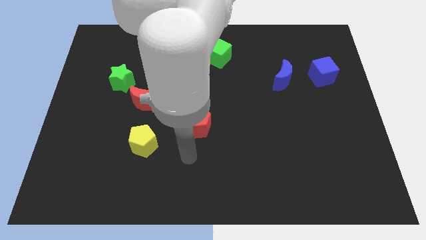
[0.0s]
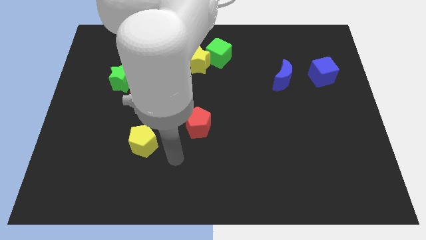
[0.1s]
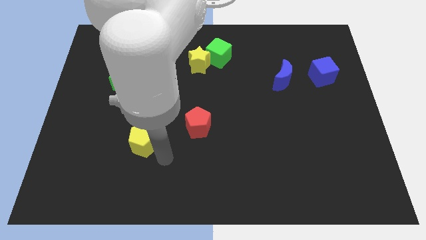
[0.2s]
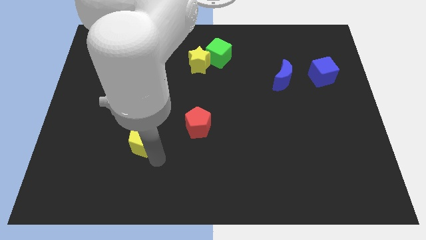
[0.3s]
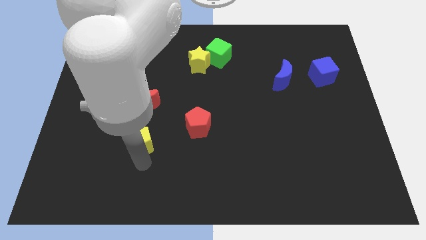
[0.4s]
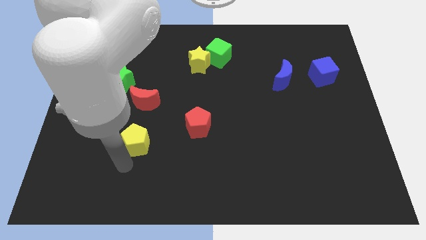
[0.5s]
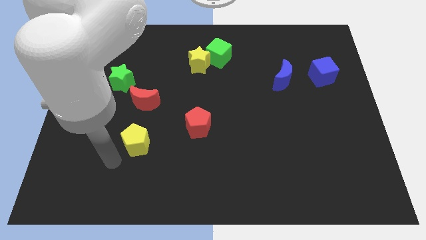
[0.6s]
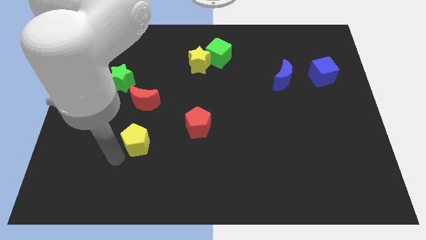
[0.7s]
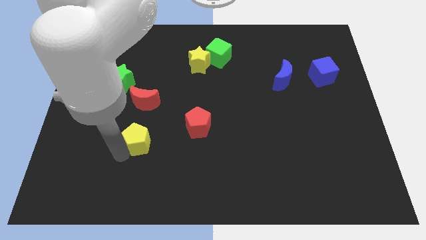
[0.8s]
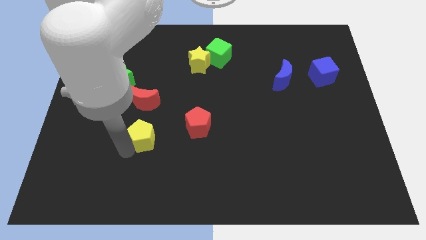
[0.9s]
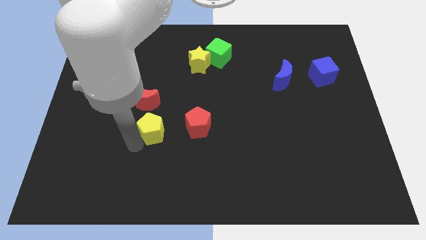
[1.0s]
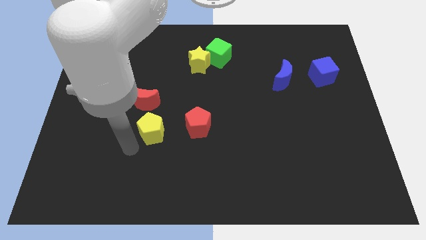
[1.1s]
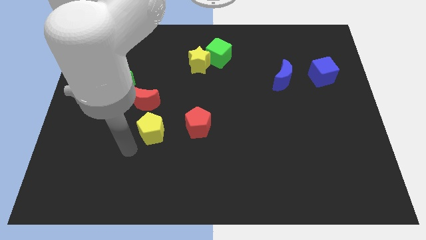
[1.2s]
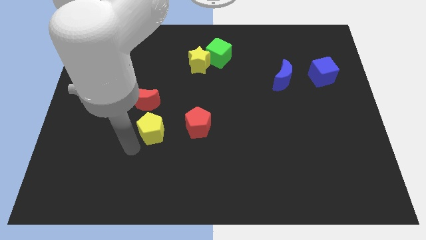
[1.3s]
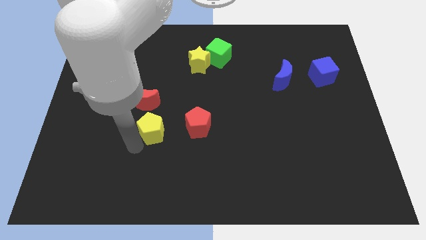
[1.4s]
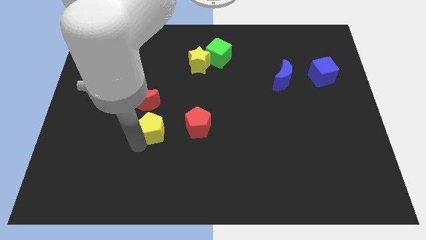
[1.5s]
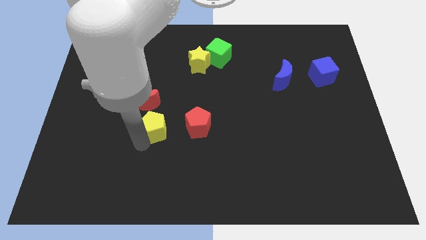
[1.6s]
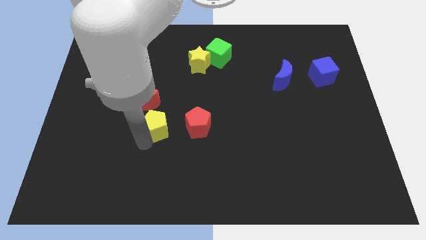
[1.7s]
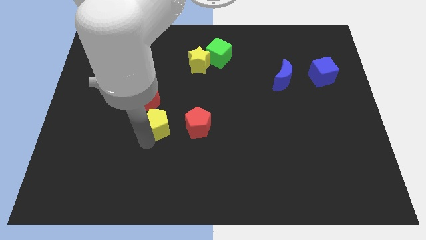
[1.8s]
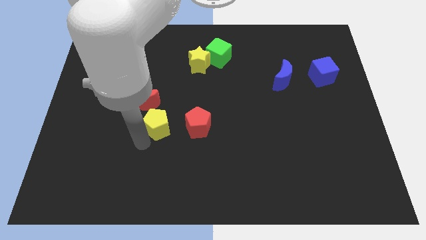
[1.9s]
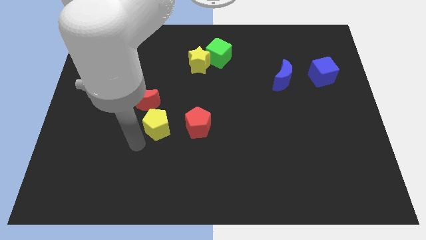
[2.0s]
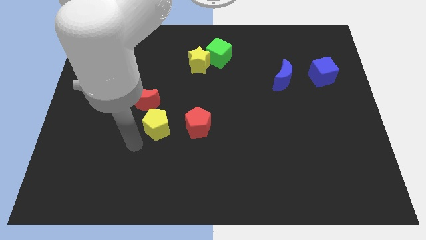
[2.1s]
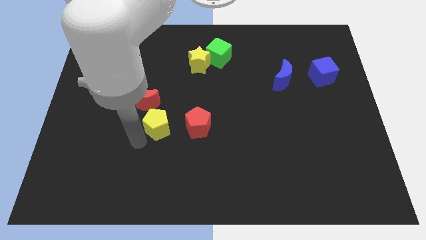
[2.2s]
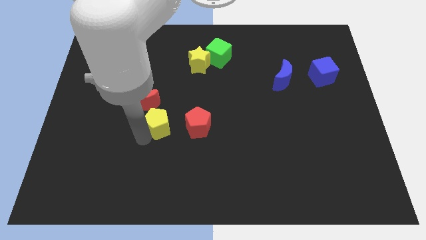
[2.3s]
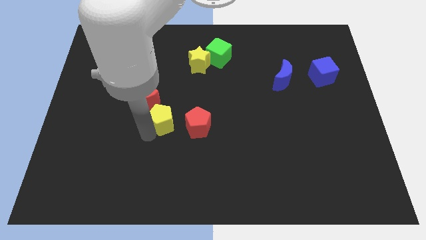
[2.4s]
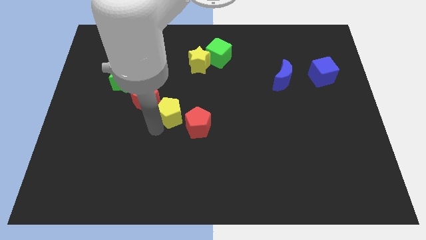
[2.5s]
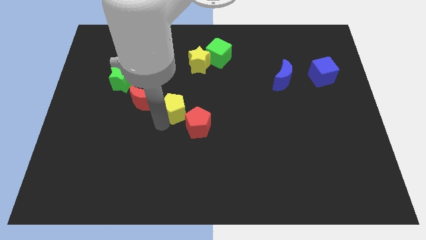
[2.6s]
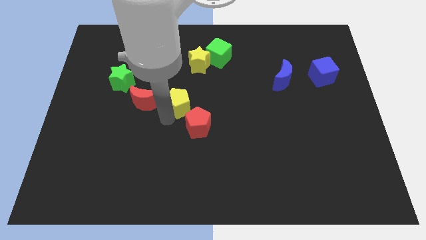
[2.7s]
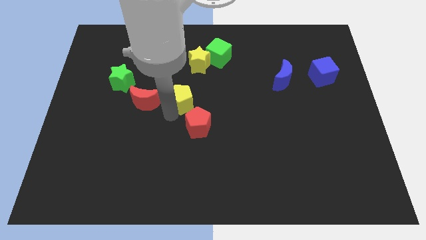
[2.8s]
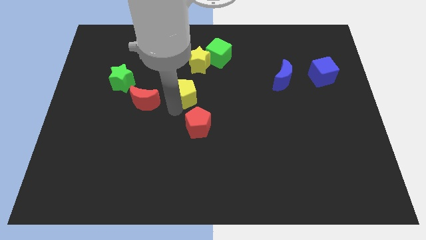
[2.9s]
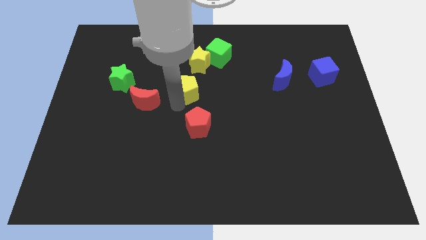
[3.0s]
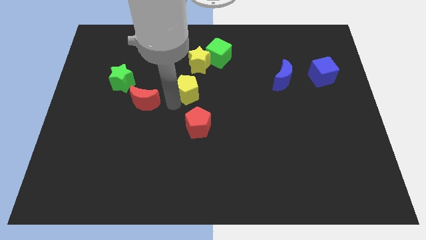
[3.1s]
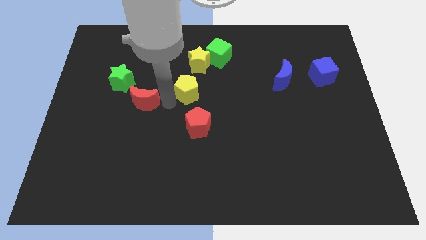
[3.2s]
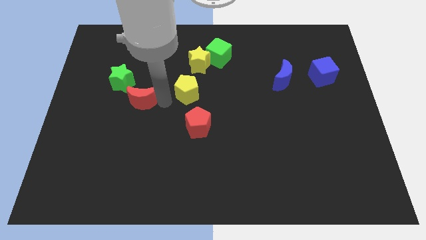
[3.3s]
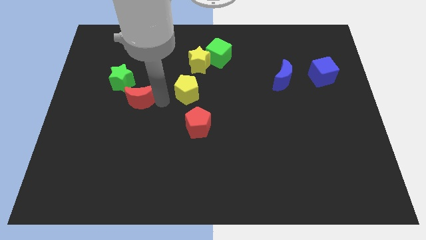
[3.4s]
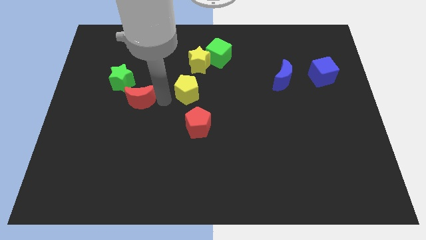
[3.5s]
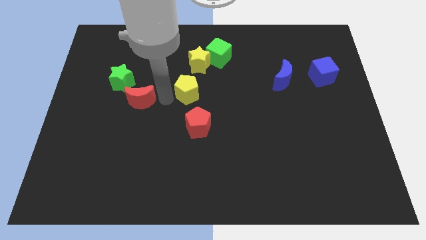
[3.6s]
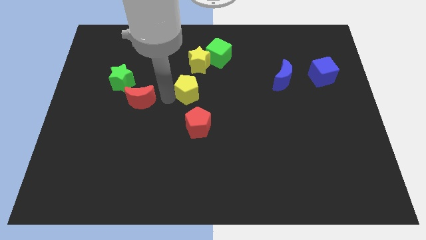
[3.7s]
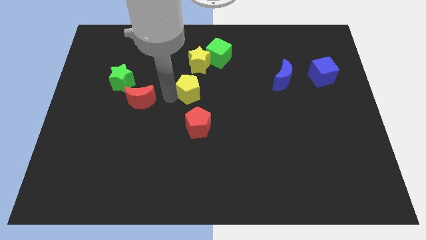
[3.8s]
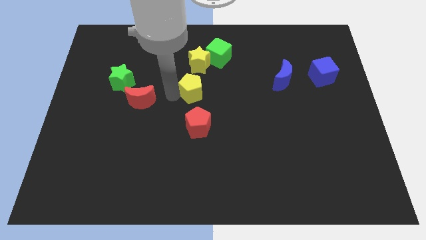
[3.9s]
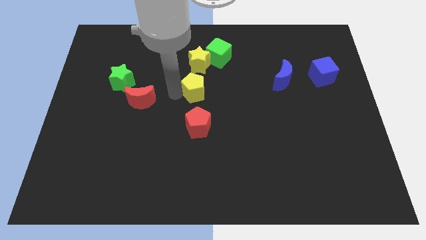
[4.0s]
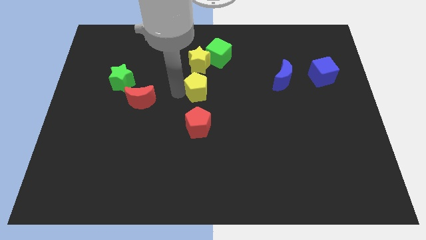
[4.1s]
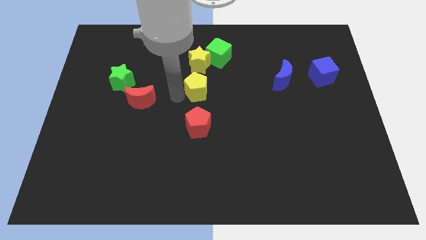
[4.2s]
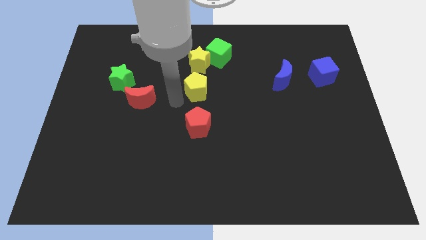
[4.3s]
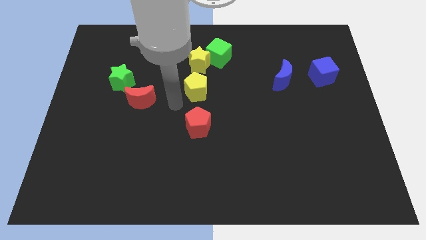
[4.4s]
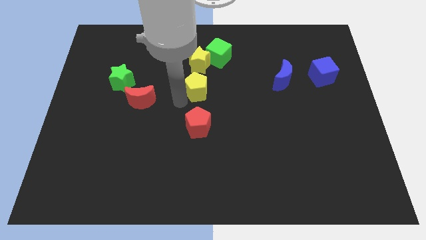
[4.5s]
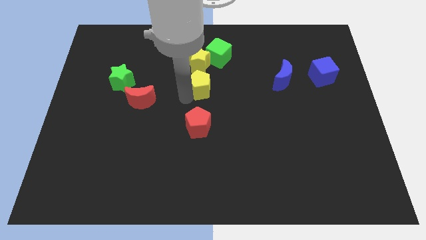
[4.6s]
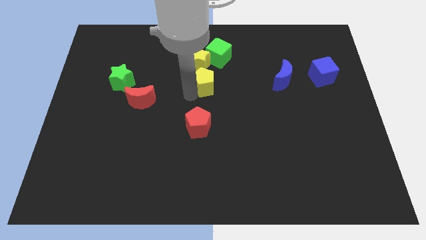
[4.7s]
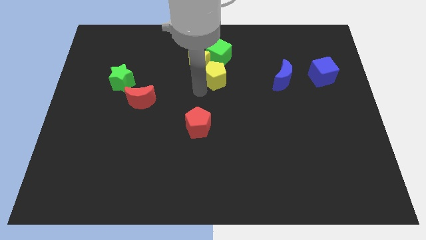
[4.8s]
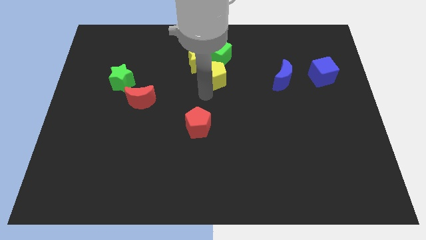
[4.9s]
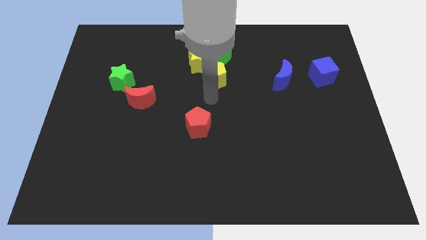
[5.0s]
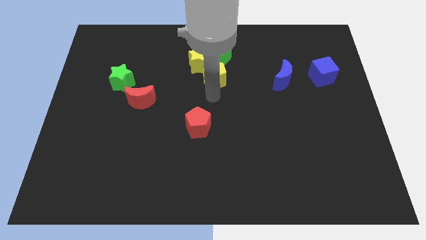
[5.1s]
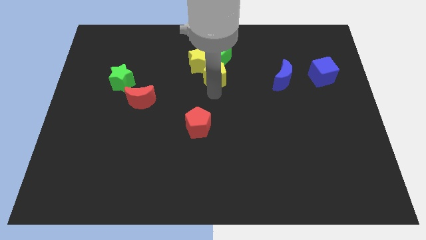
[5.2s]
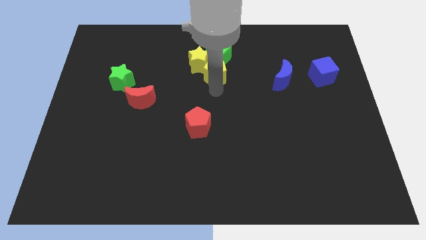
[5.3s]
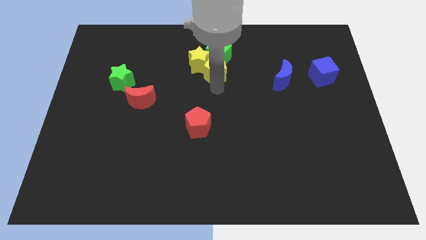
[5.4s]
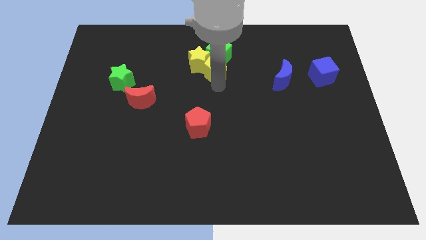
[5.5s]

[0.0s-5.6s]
move the yellow pentagon next to the green cube

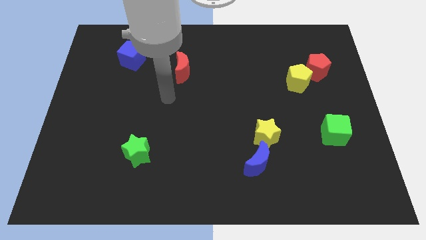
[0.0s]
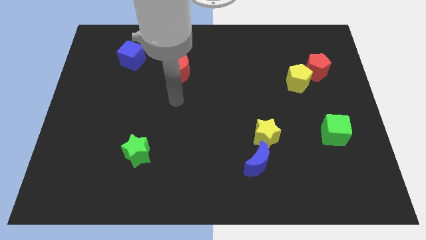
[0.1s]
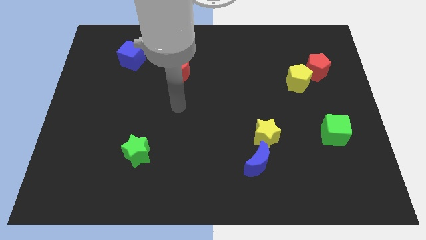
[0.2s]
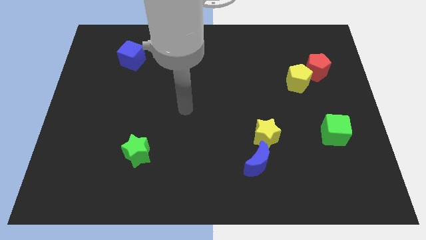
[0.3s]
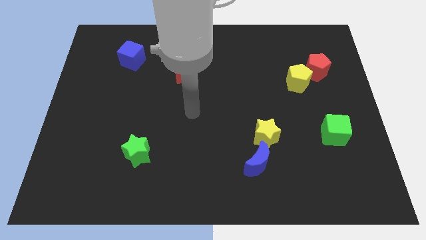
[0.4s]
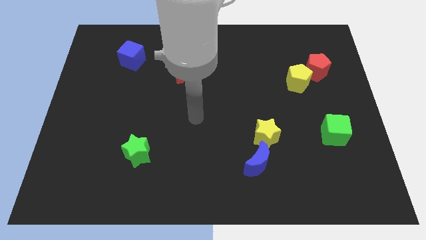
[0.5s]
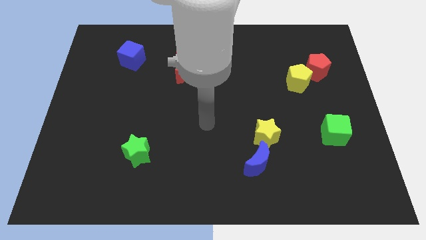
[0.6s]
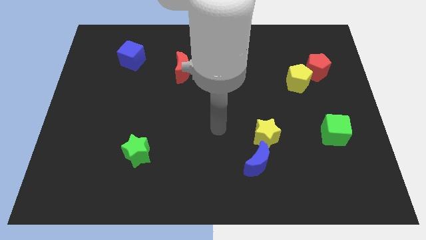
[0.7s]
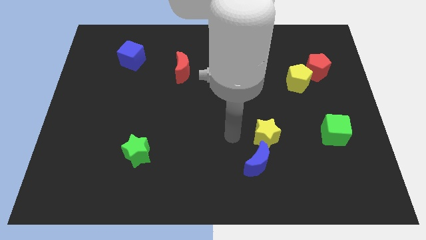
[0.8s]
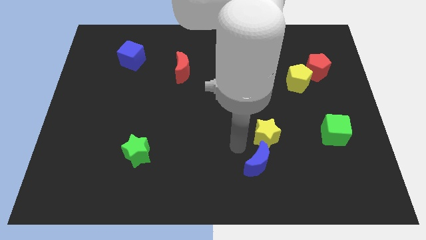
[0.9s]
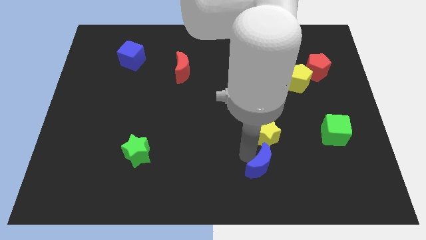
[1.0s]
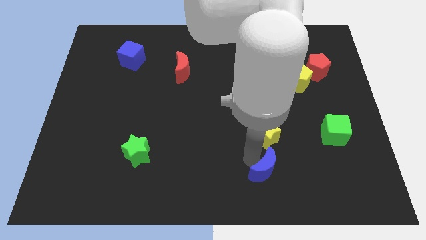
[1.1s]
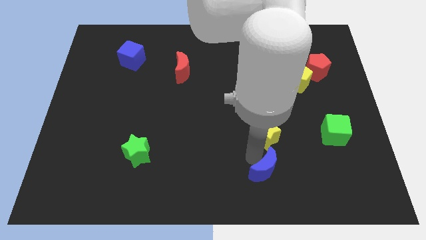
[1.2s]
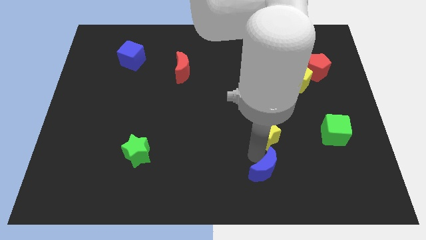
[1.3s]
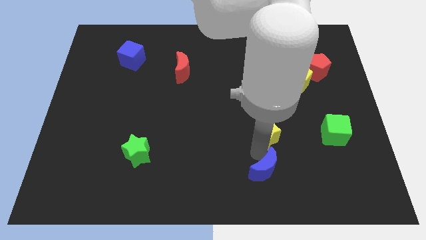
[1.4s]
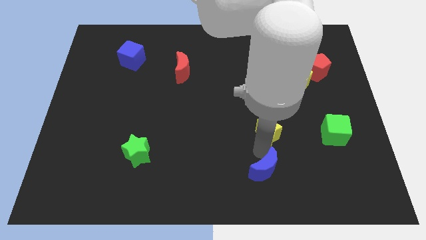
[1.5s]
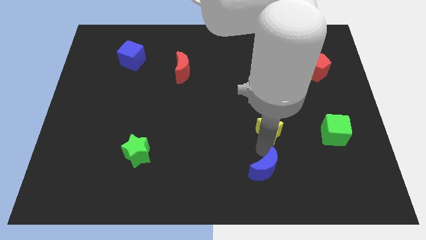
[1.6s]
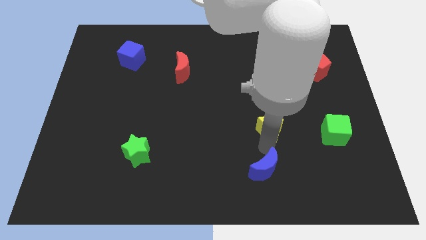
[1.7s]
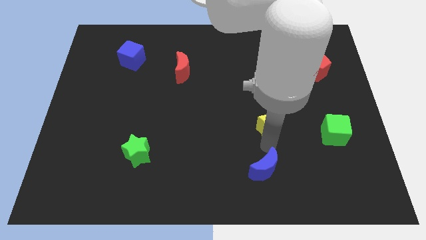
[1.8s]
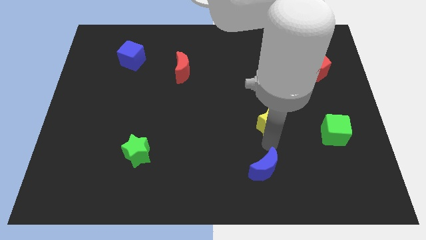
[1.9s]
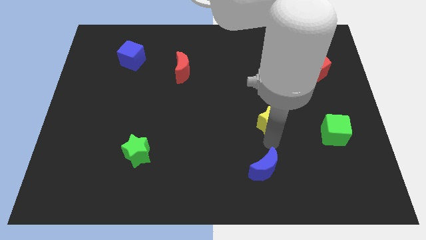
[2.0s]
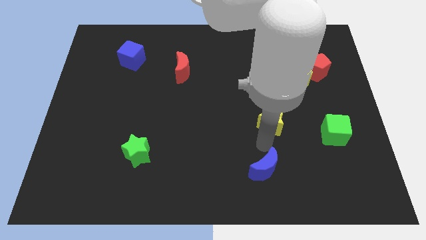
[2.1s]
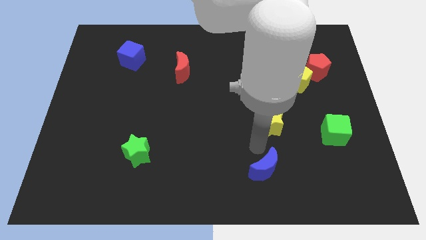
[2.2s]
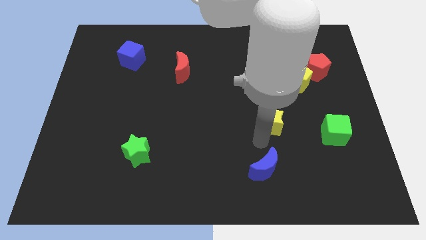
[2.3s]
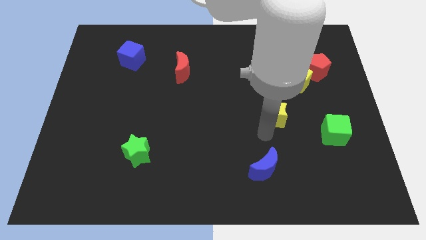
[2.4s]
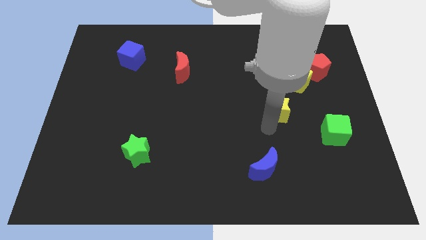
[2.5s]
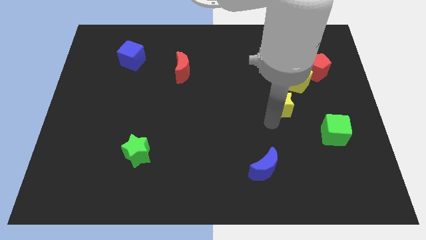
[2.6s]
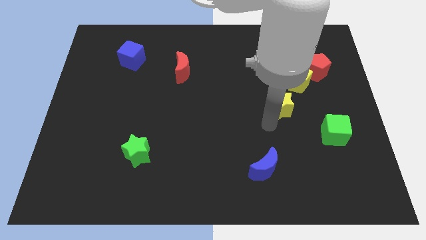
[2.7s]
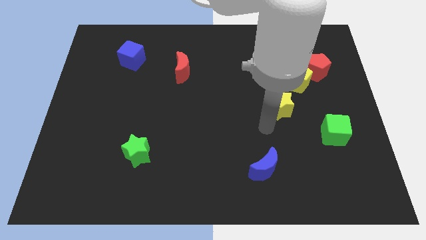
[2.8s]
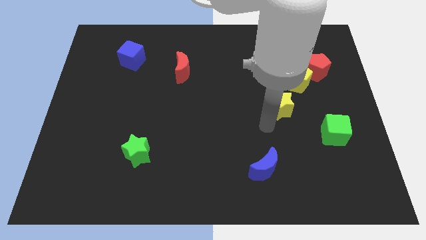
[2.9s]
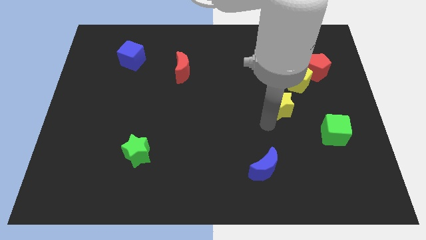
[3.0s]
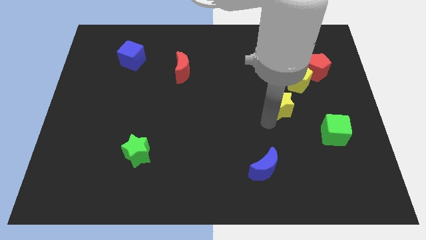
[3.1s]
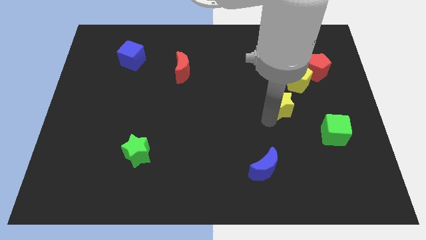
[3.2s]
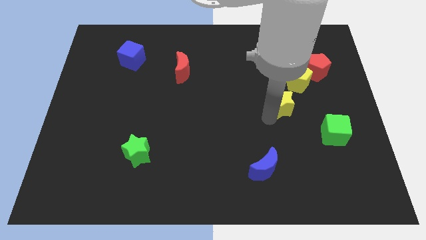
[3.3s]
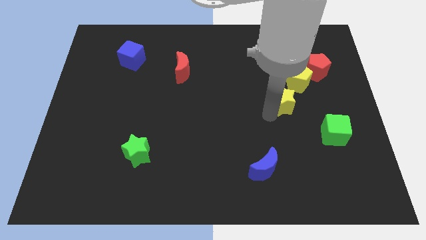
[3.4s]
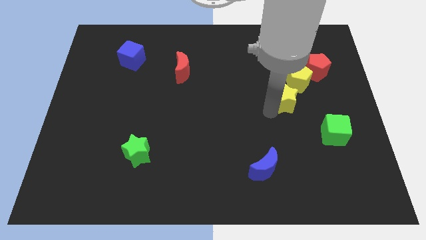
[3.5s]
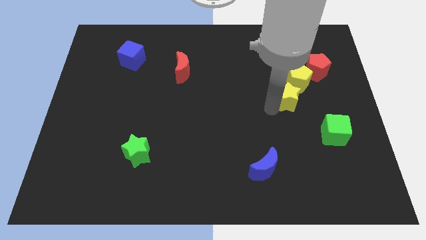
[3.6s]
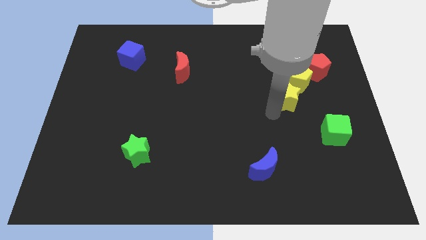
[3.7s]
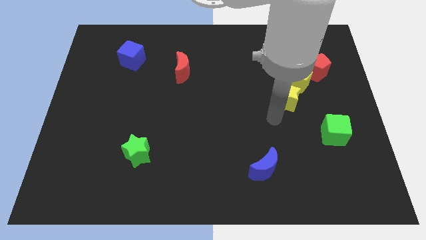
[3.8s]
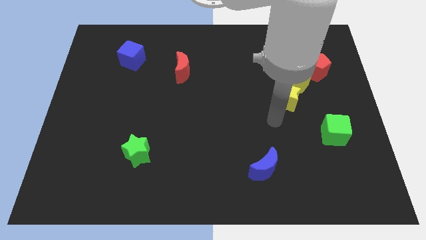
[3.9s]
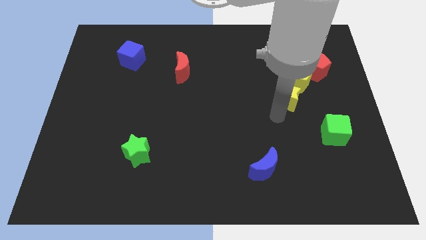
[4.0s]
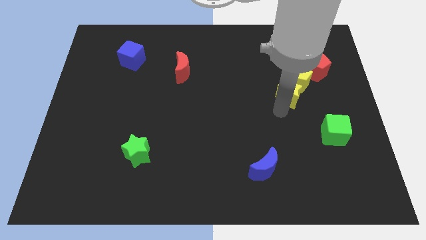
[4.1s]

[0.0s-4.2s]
slide the yellow star to the yellow pentagon
